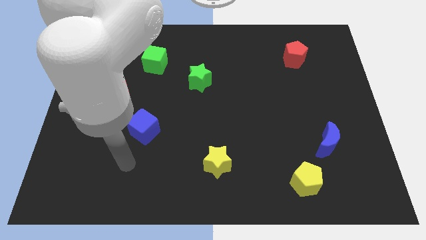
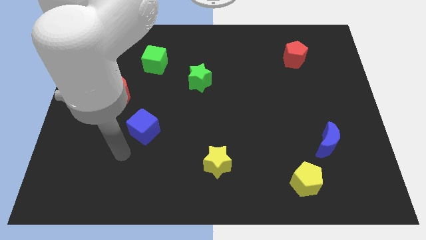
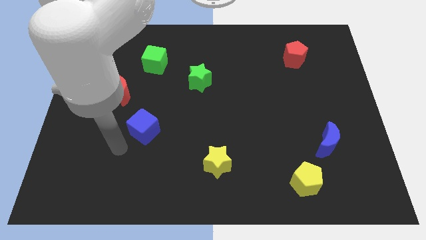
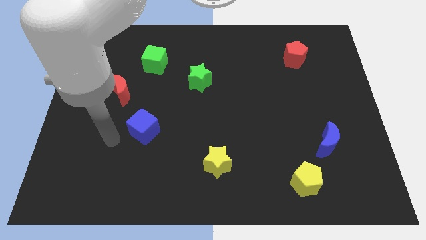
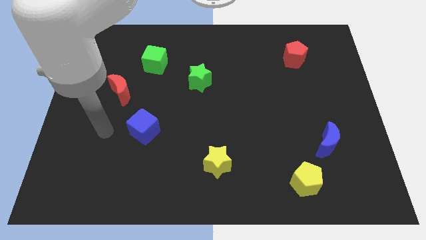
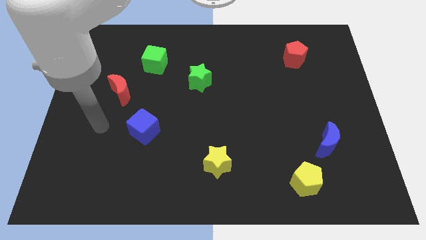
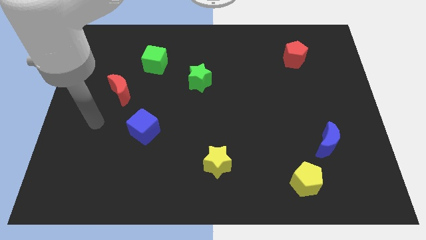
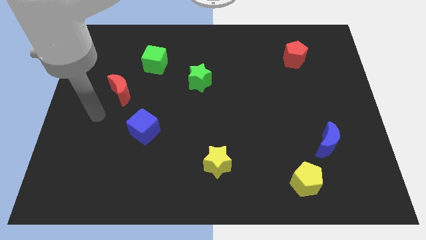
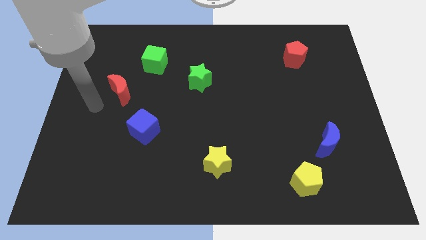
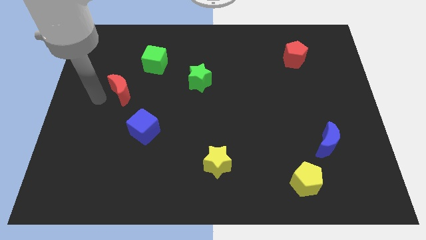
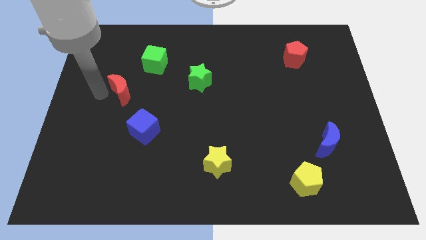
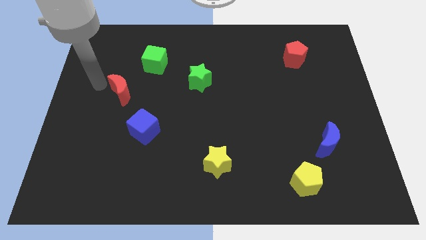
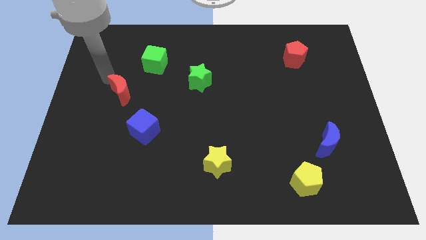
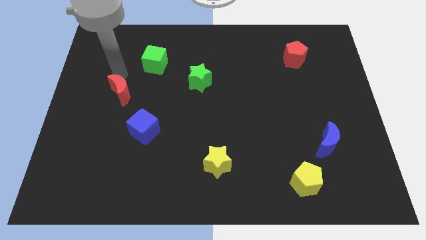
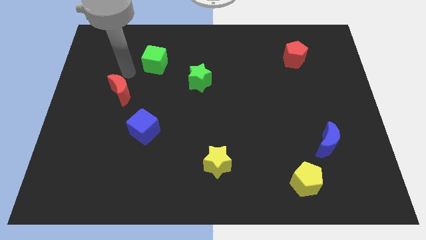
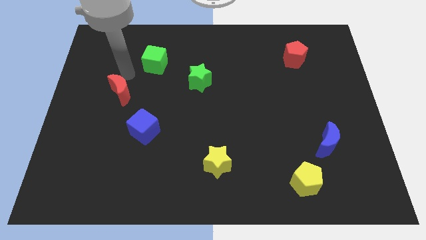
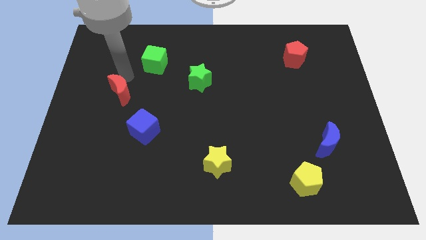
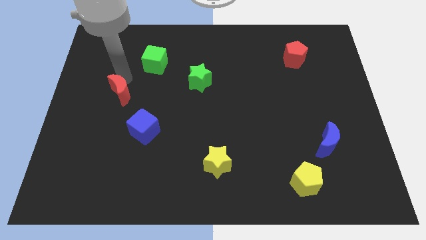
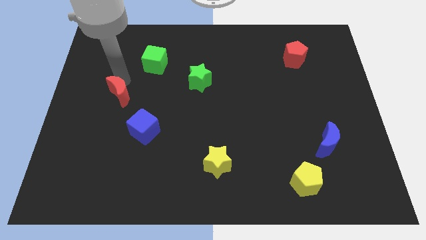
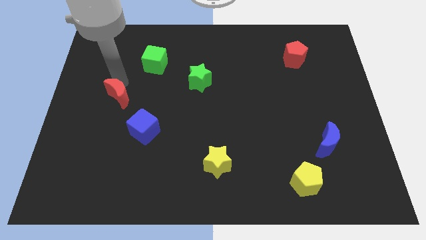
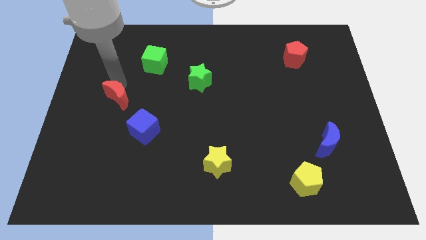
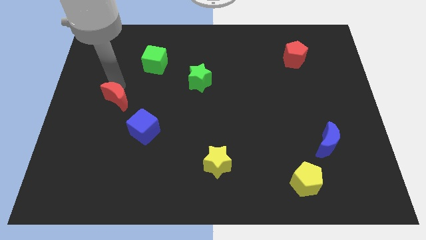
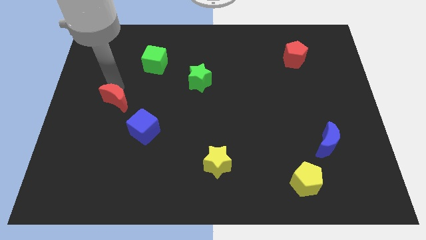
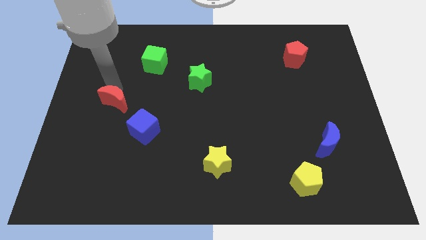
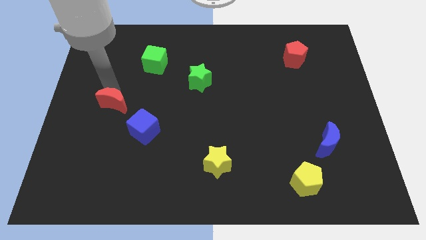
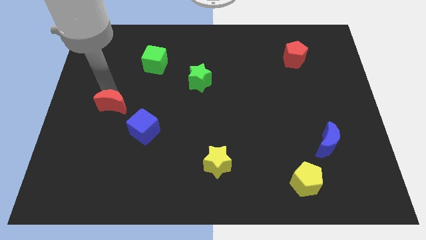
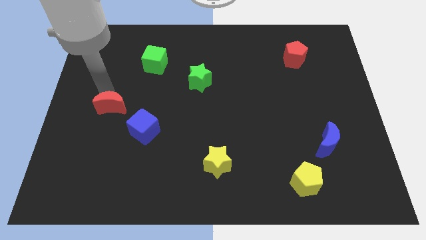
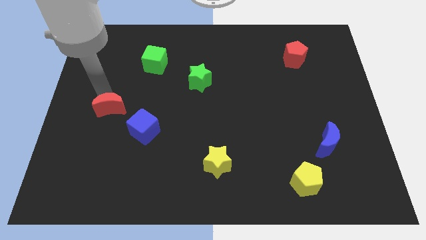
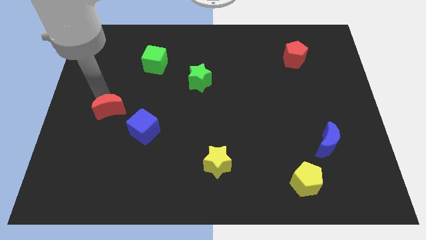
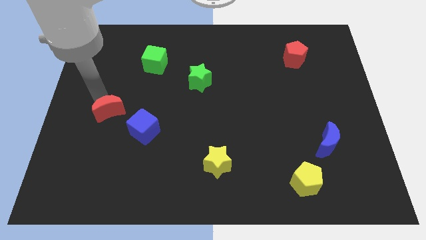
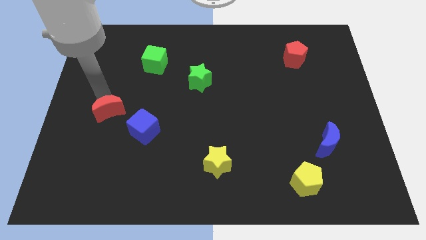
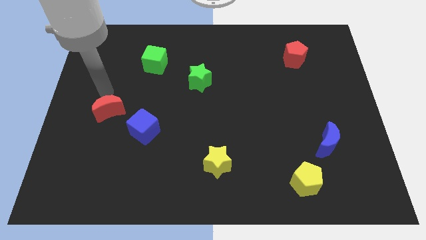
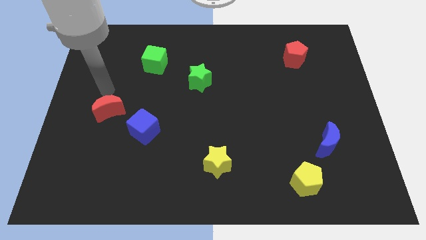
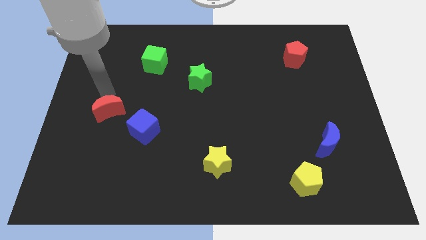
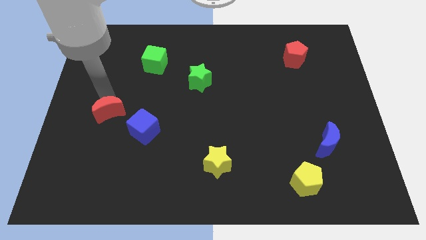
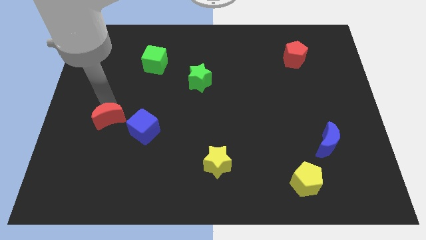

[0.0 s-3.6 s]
push the red moon a little bit downwards

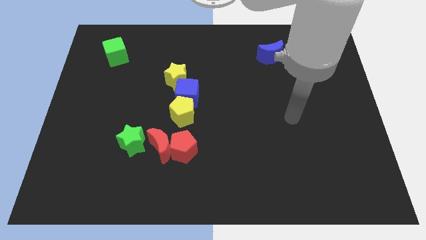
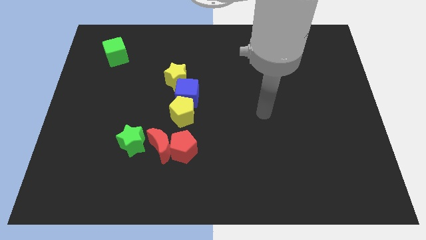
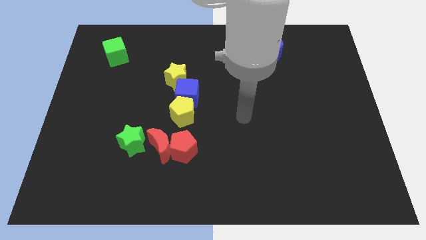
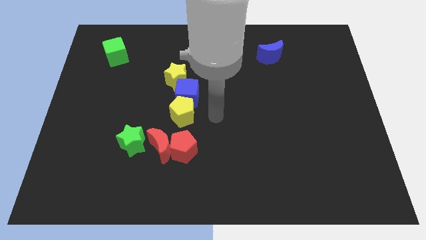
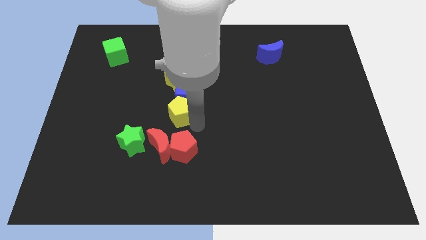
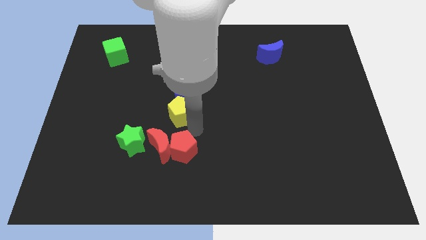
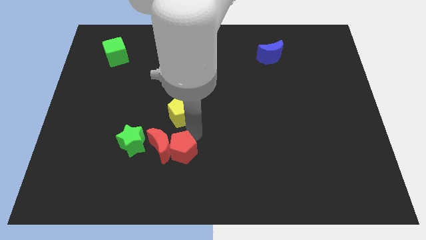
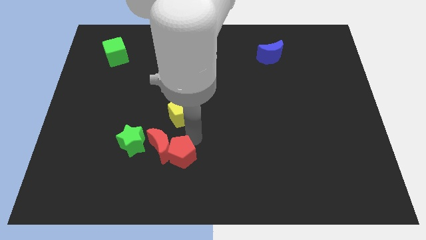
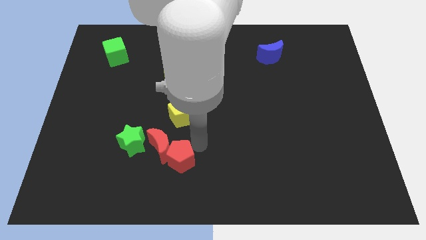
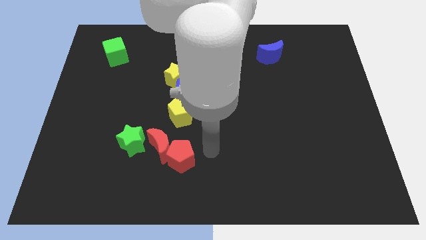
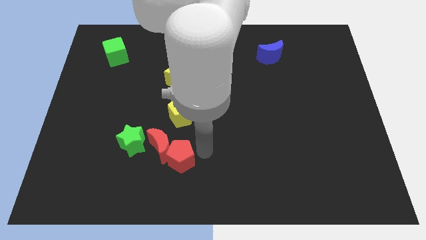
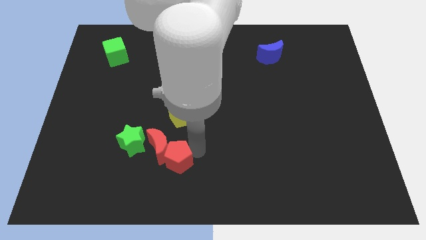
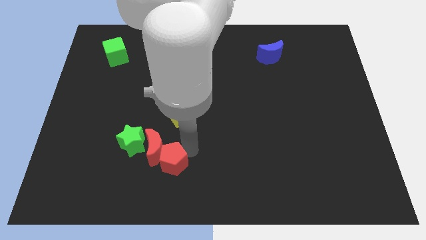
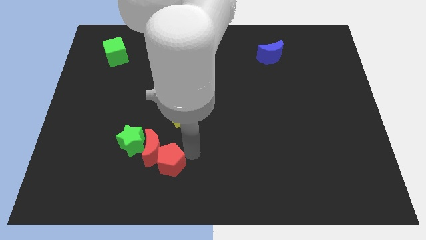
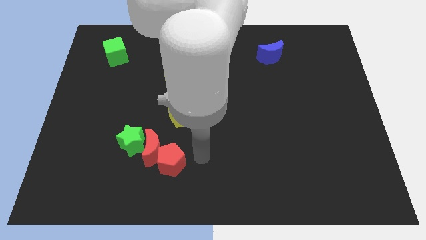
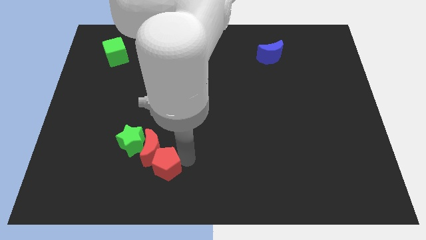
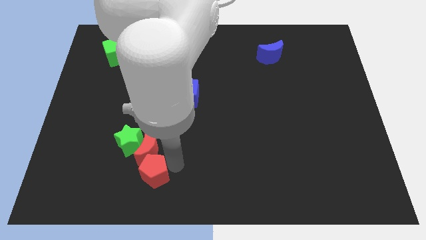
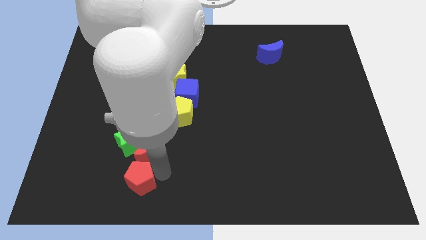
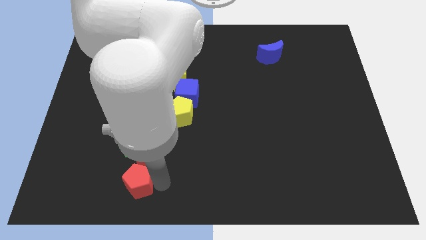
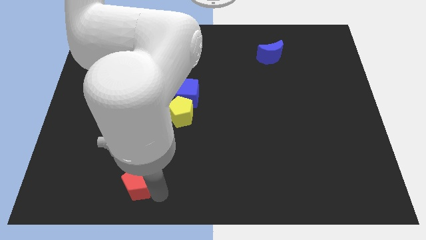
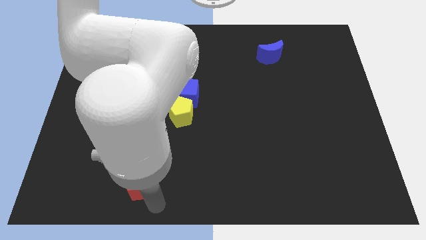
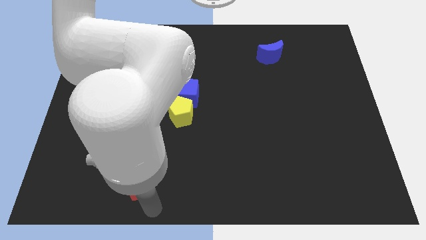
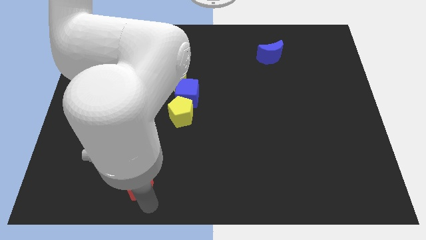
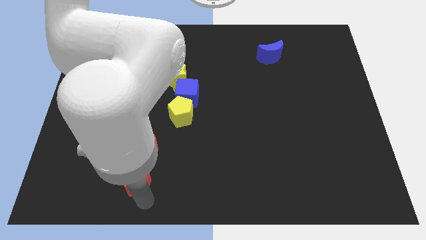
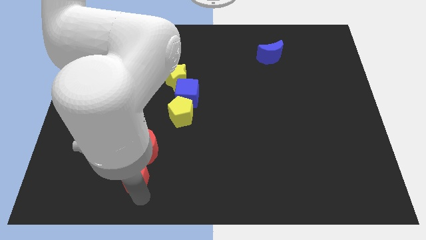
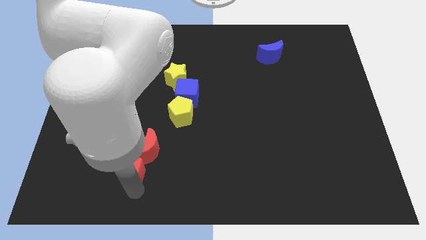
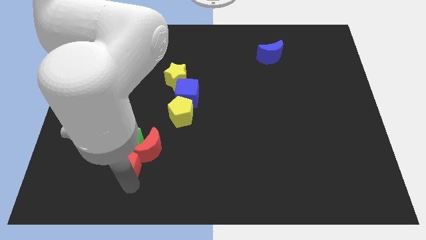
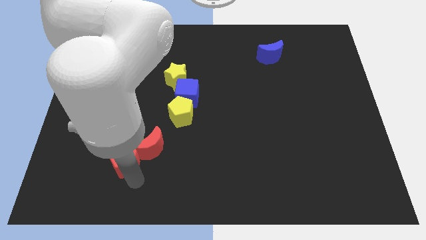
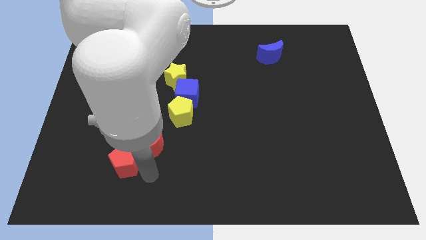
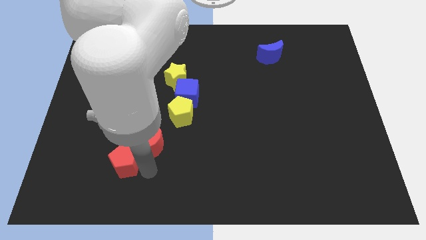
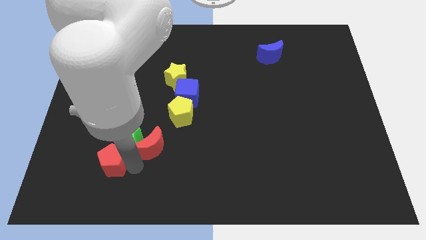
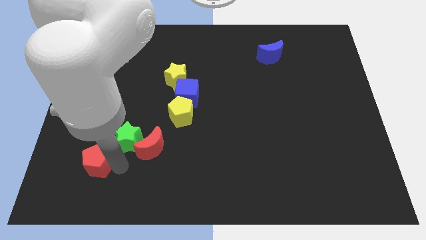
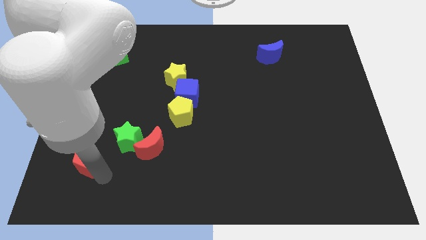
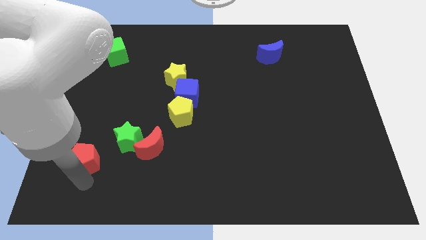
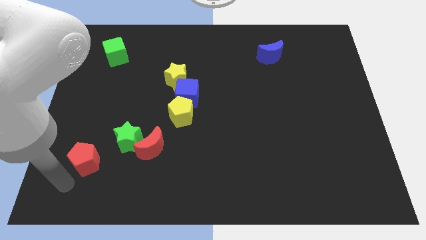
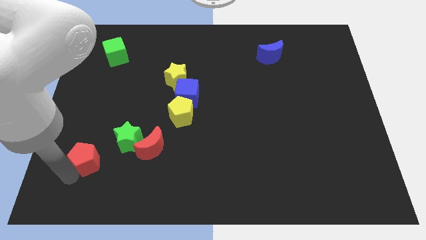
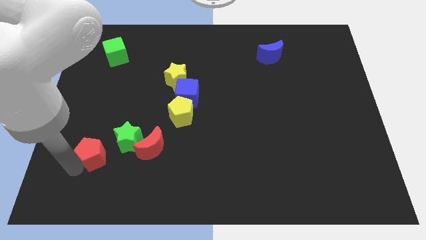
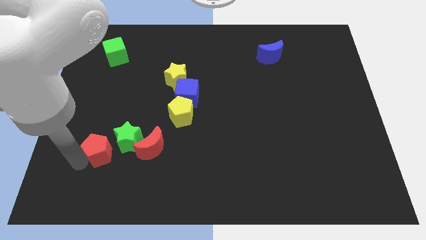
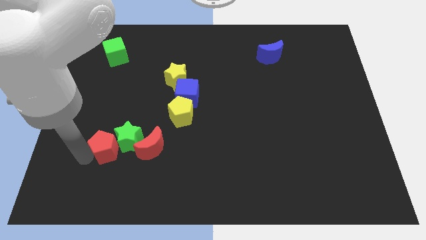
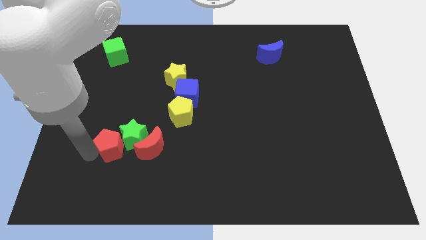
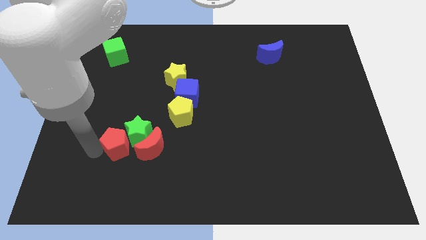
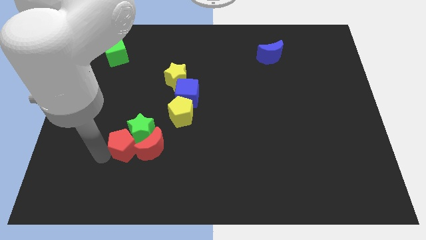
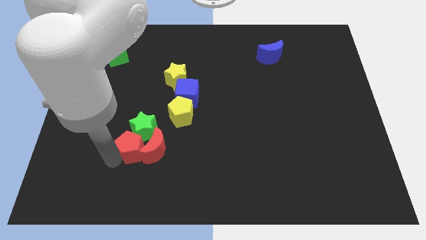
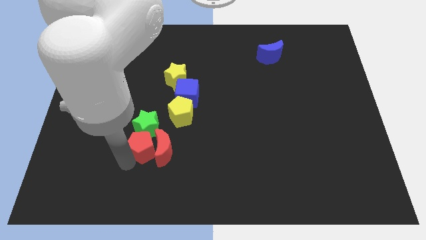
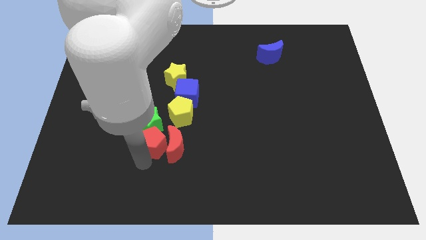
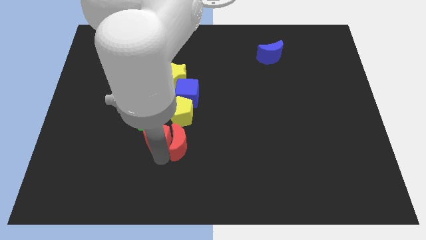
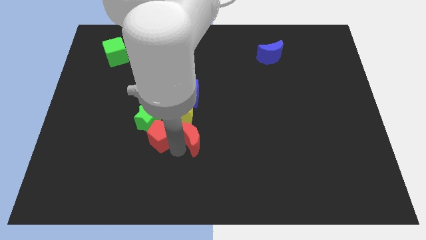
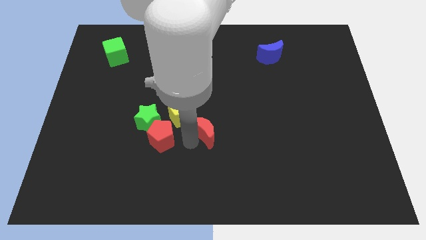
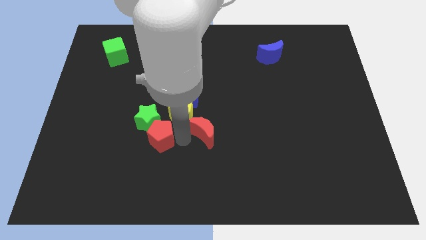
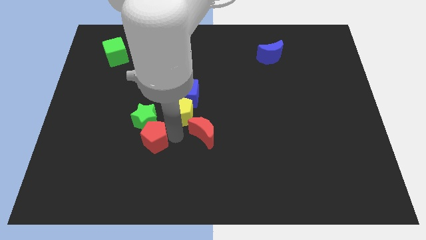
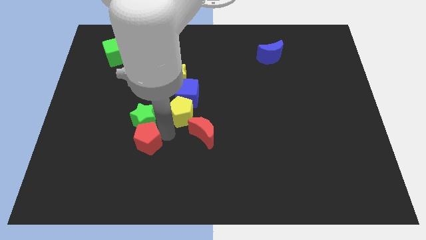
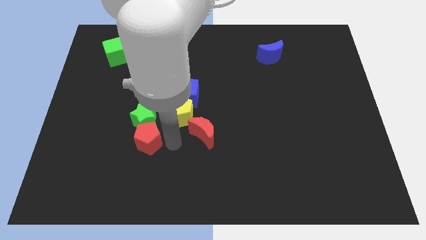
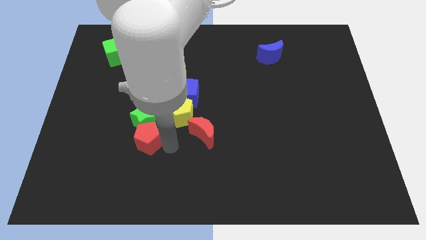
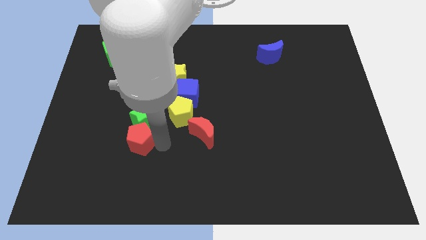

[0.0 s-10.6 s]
slightly move the red pentagon upwards and left diagonally
